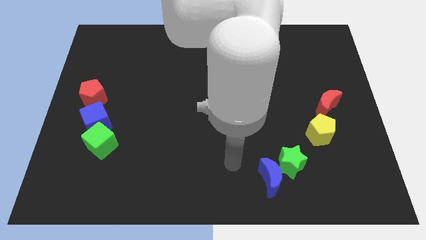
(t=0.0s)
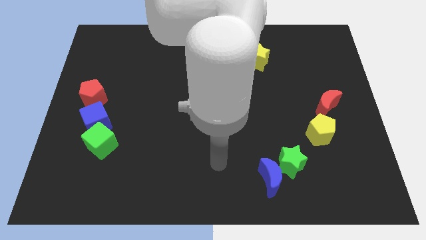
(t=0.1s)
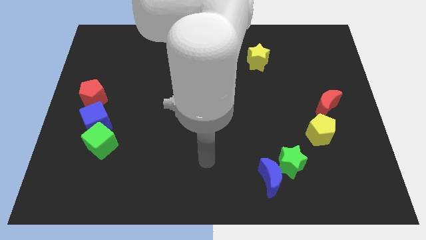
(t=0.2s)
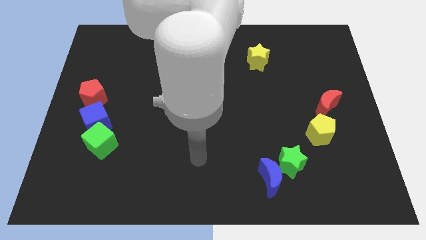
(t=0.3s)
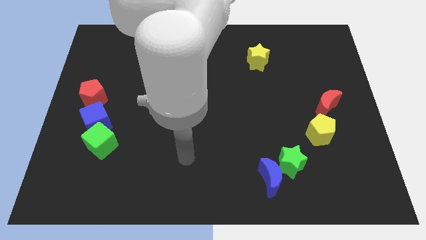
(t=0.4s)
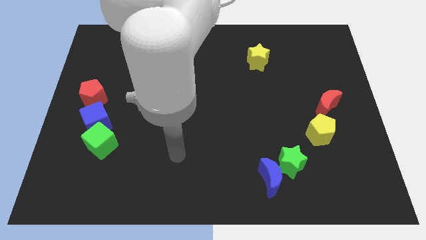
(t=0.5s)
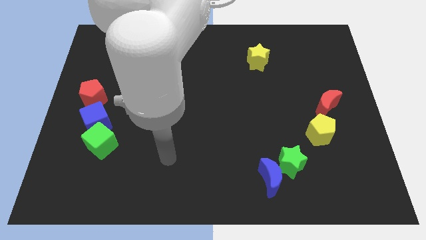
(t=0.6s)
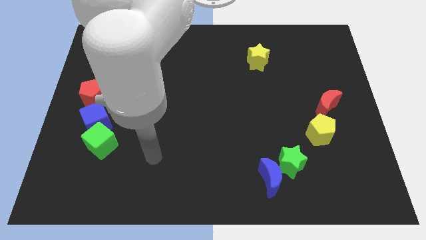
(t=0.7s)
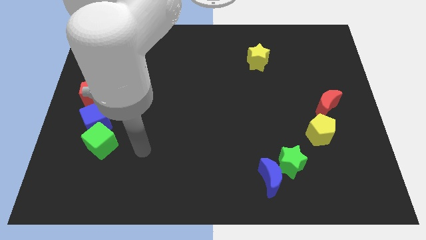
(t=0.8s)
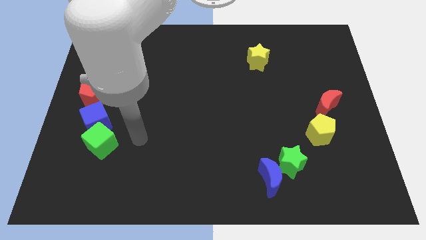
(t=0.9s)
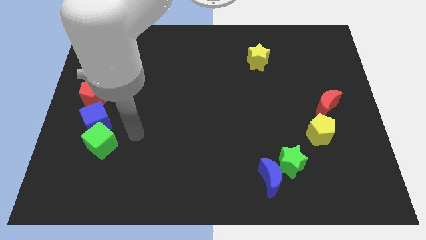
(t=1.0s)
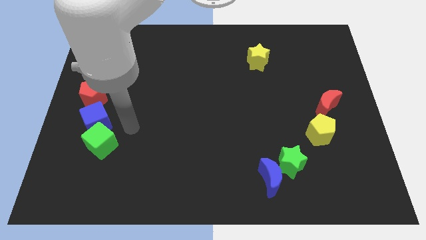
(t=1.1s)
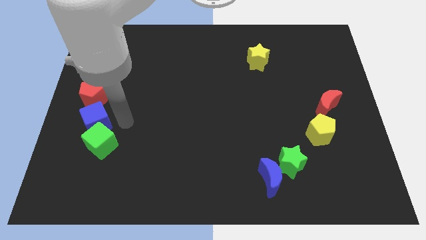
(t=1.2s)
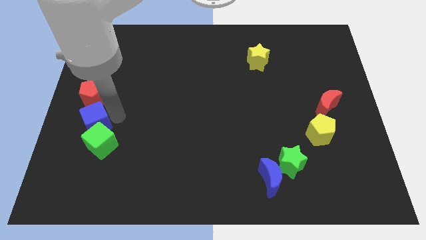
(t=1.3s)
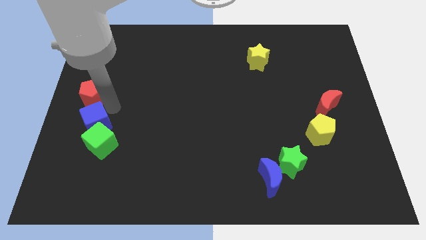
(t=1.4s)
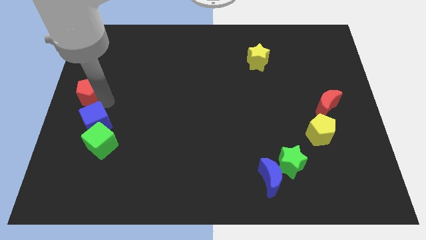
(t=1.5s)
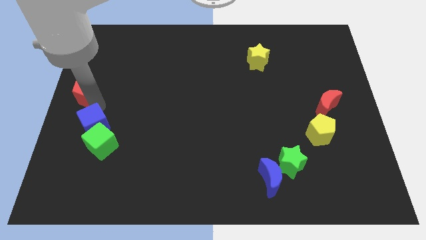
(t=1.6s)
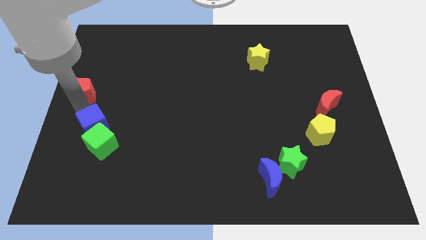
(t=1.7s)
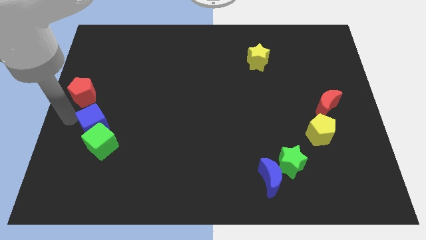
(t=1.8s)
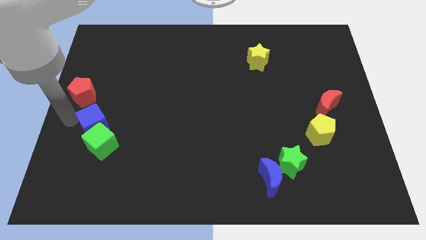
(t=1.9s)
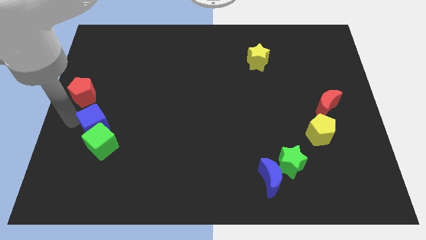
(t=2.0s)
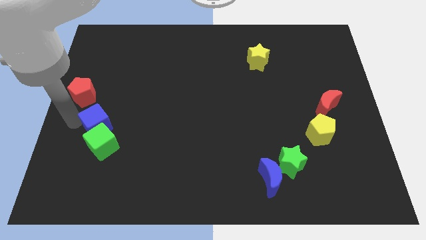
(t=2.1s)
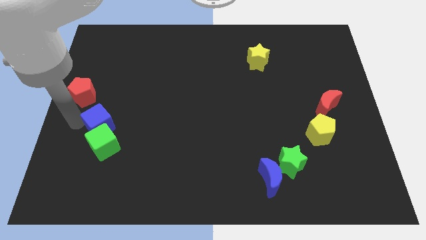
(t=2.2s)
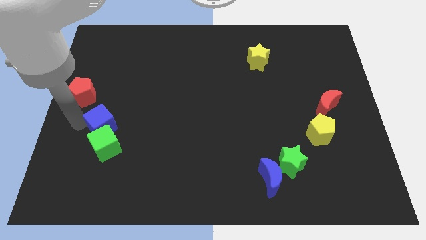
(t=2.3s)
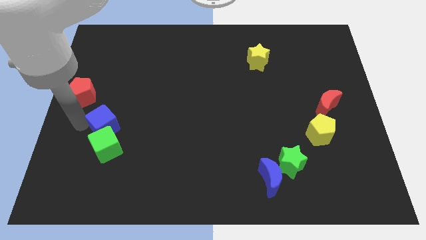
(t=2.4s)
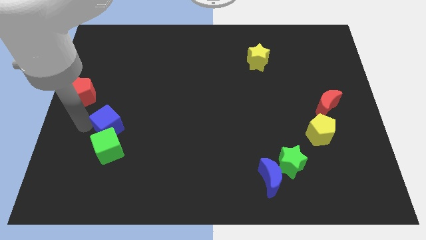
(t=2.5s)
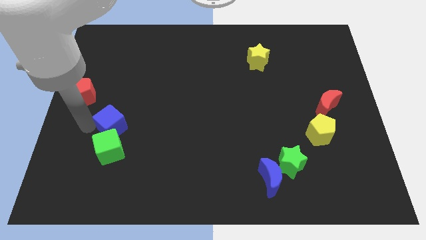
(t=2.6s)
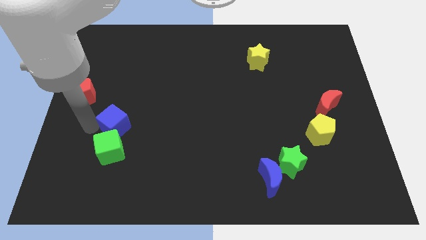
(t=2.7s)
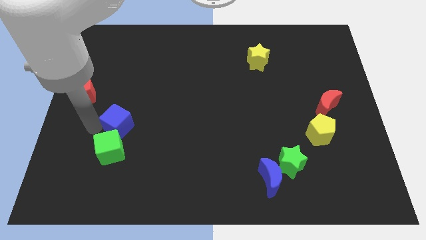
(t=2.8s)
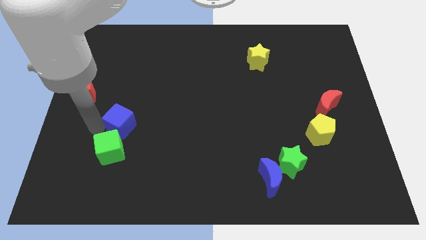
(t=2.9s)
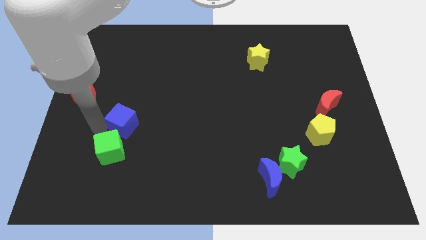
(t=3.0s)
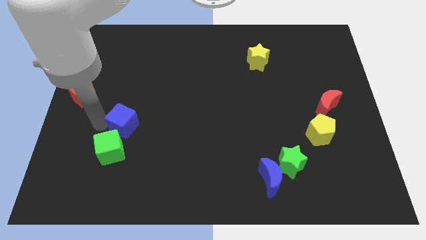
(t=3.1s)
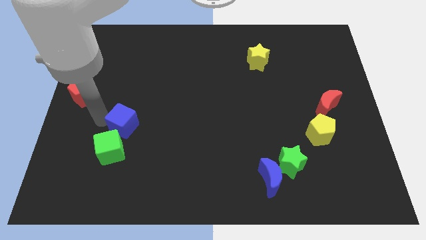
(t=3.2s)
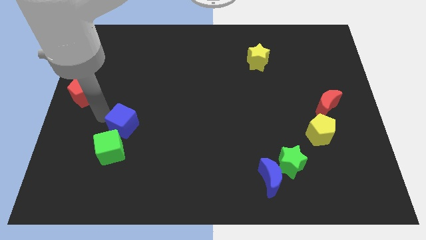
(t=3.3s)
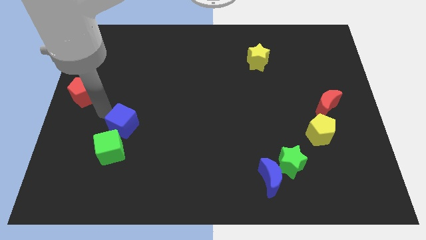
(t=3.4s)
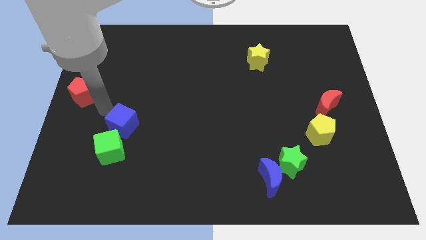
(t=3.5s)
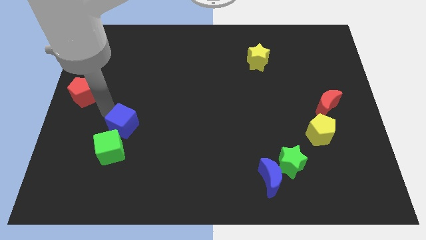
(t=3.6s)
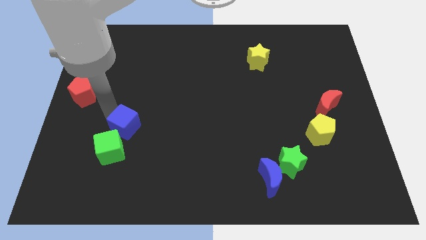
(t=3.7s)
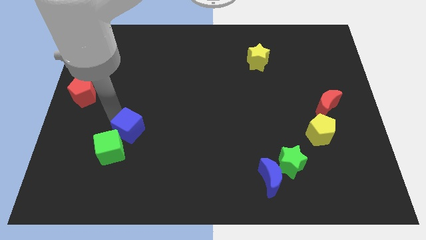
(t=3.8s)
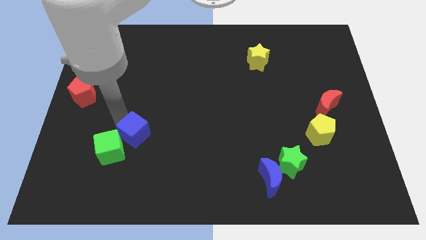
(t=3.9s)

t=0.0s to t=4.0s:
slide the blue cube a little bit downwards and right

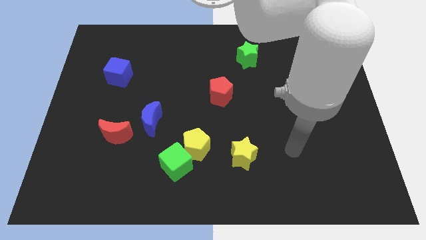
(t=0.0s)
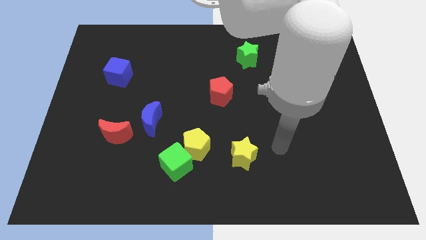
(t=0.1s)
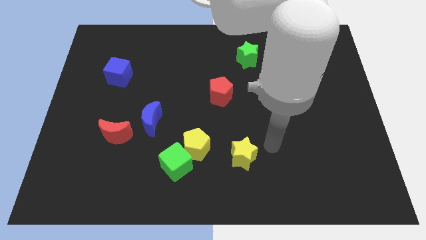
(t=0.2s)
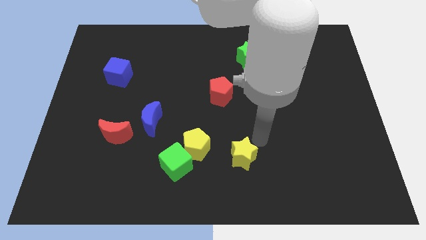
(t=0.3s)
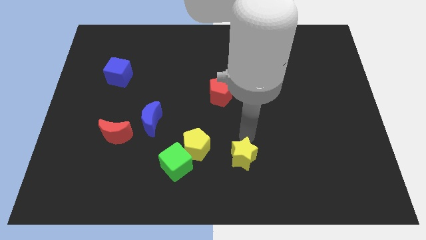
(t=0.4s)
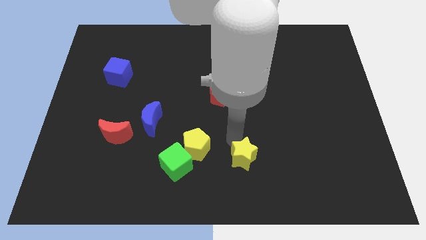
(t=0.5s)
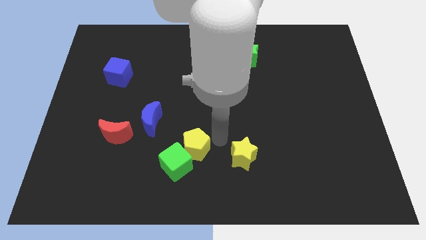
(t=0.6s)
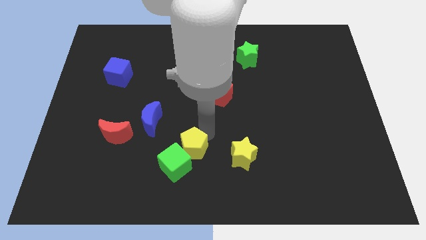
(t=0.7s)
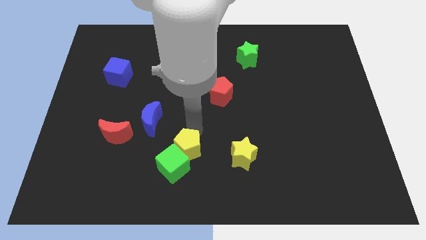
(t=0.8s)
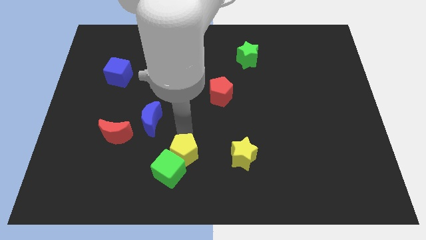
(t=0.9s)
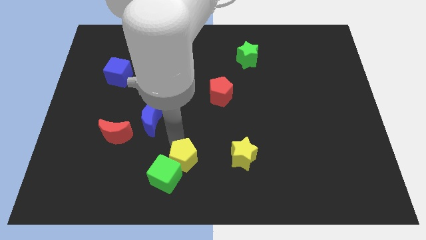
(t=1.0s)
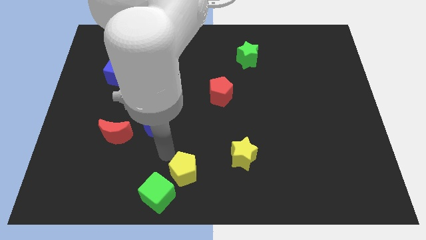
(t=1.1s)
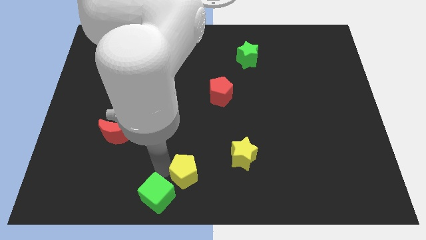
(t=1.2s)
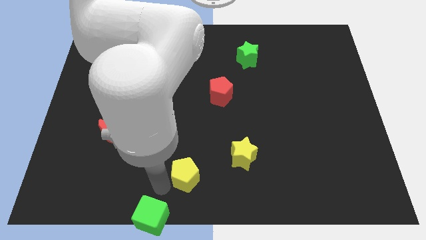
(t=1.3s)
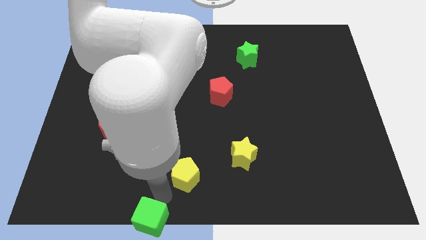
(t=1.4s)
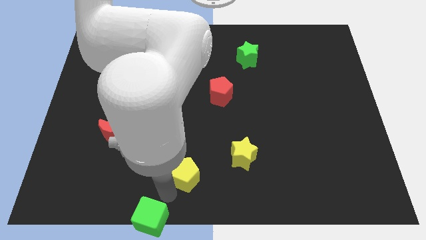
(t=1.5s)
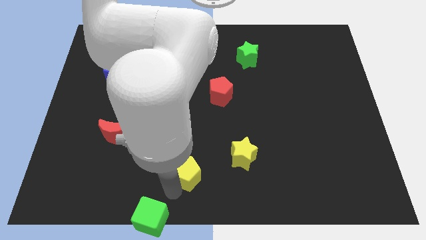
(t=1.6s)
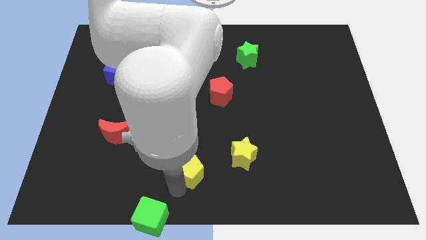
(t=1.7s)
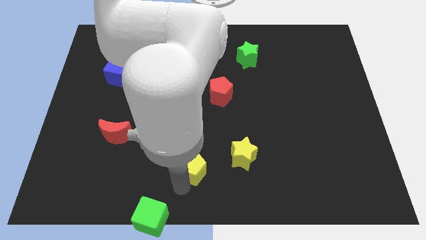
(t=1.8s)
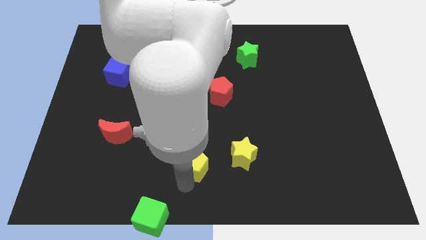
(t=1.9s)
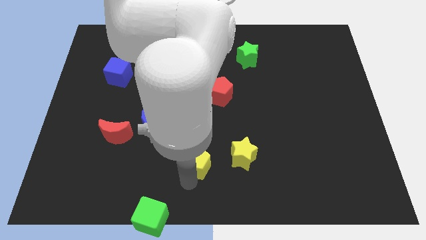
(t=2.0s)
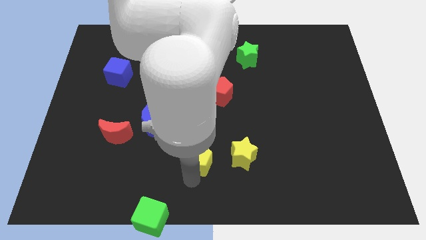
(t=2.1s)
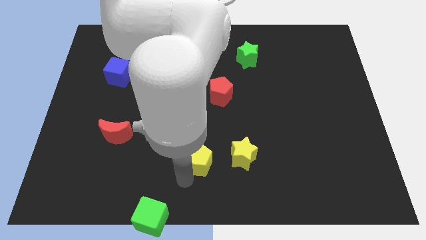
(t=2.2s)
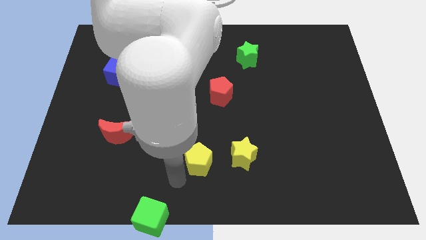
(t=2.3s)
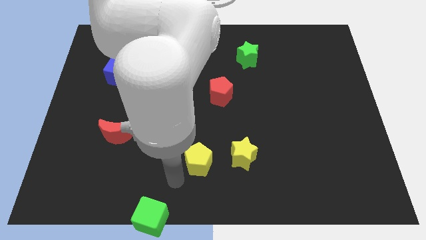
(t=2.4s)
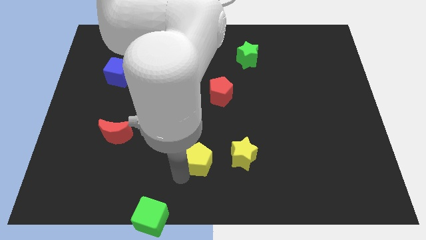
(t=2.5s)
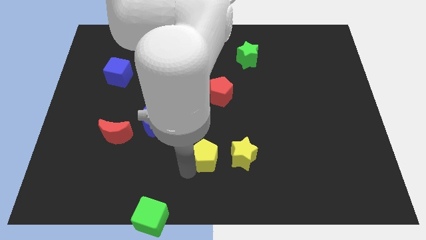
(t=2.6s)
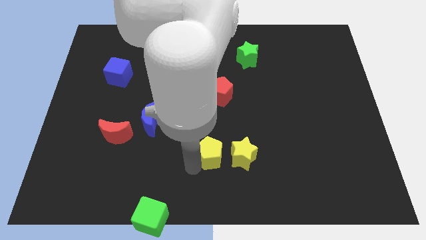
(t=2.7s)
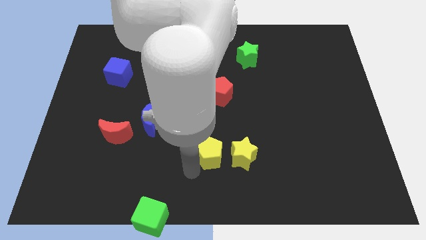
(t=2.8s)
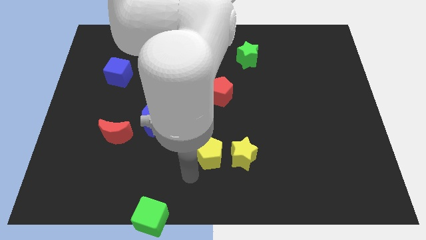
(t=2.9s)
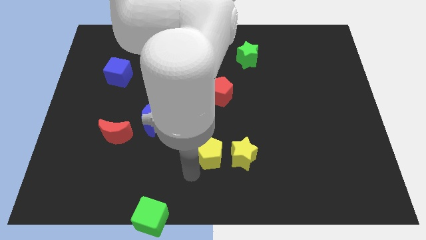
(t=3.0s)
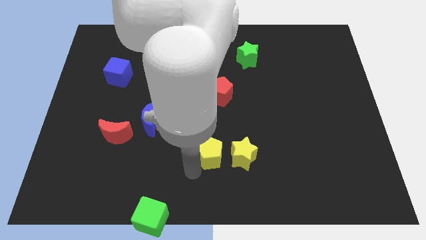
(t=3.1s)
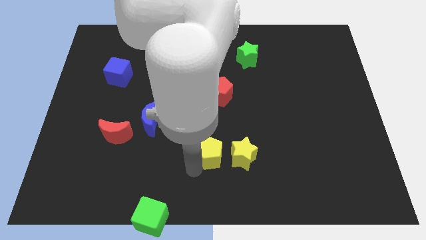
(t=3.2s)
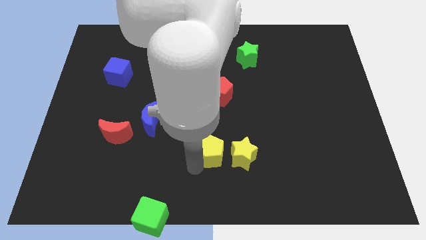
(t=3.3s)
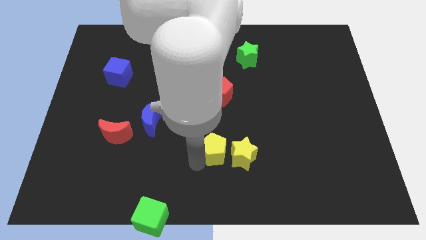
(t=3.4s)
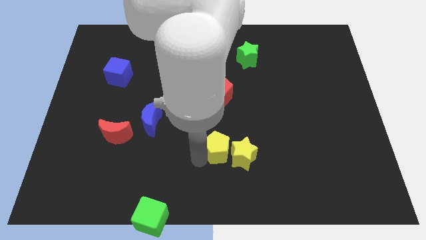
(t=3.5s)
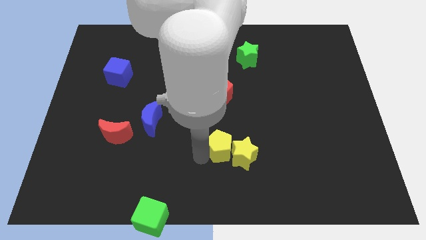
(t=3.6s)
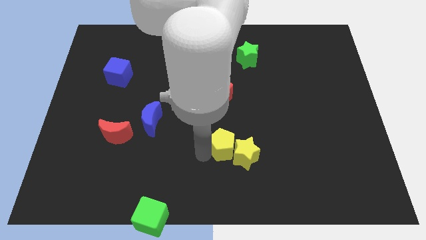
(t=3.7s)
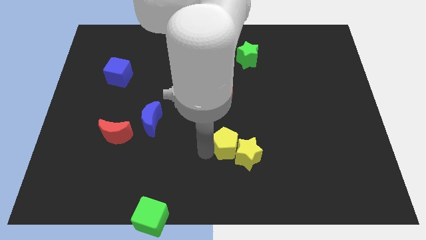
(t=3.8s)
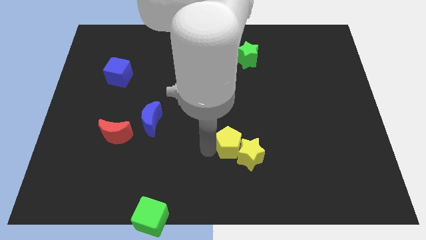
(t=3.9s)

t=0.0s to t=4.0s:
slightly slide the yellow pentagon right

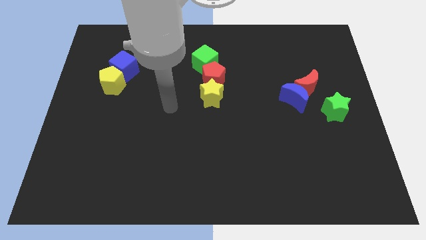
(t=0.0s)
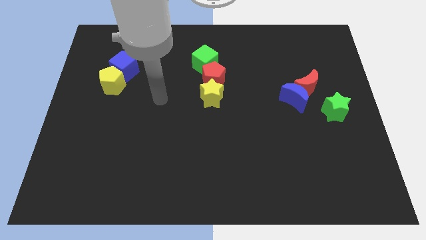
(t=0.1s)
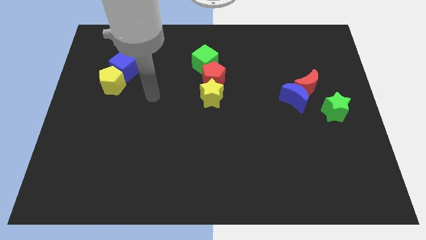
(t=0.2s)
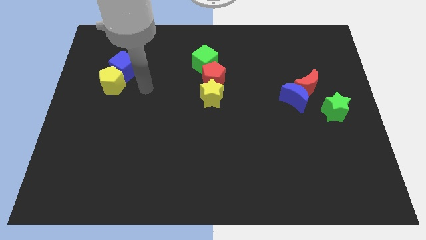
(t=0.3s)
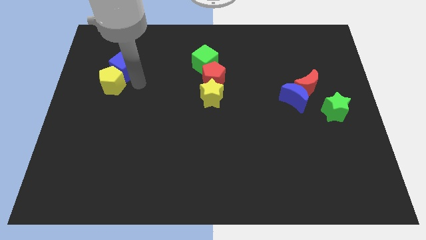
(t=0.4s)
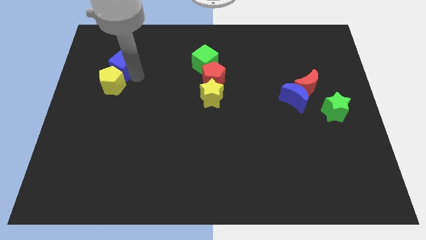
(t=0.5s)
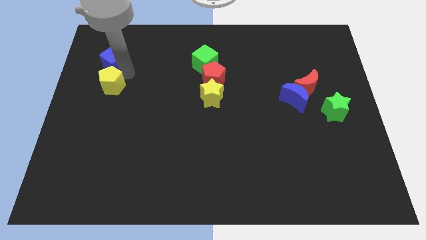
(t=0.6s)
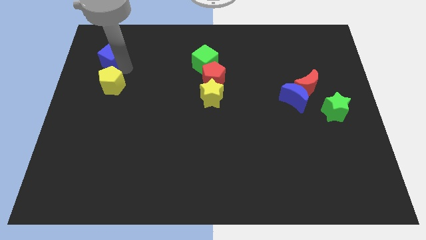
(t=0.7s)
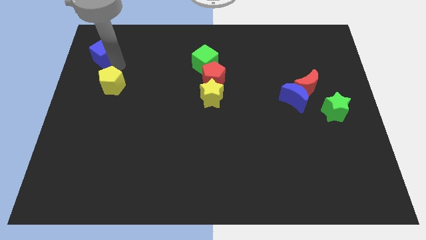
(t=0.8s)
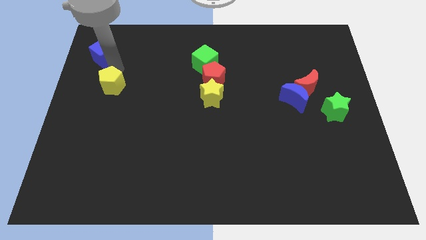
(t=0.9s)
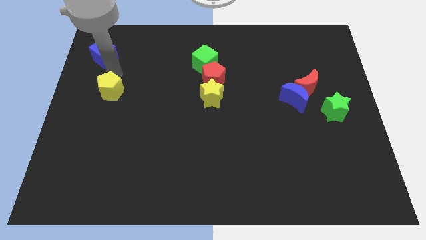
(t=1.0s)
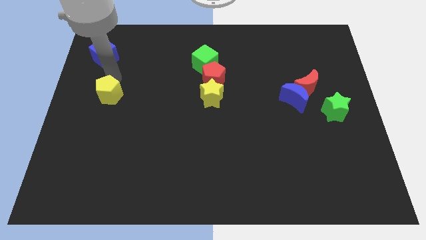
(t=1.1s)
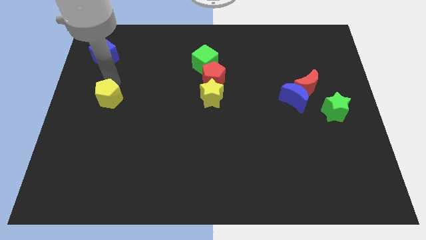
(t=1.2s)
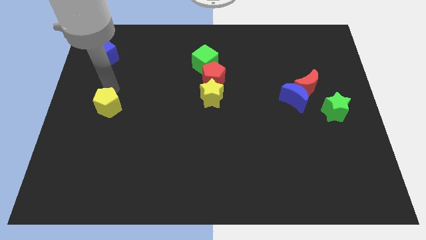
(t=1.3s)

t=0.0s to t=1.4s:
slightly slide the yellow pentagon down
